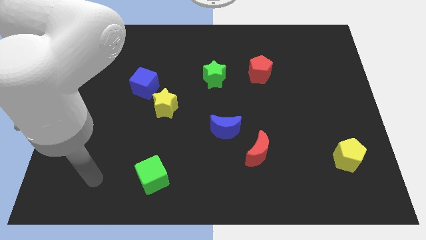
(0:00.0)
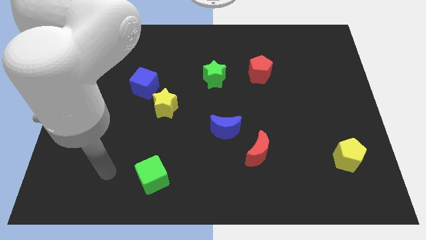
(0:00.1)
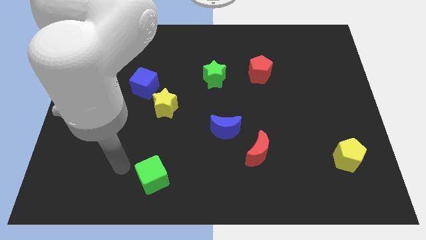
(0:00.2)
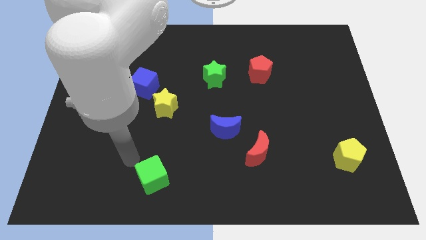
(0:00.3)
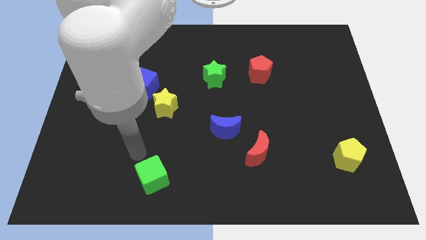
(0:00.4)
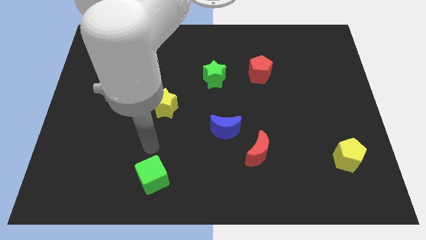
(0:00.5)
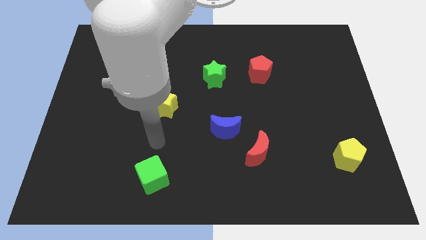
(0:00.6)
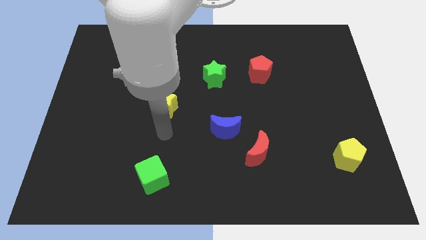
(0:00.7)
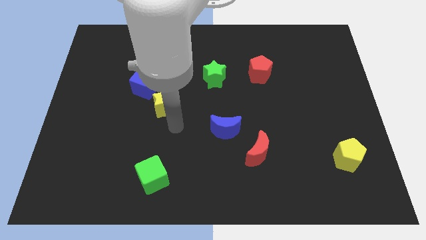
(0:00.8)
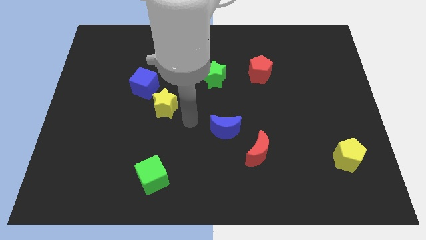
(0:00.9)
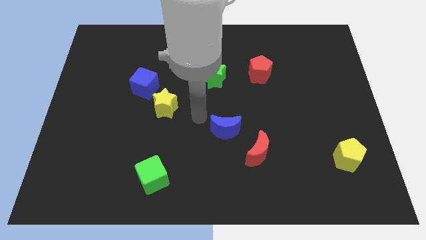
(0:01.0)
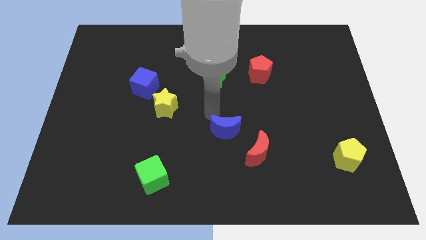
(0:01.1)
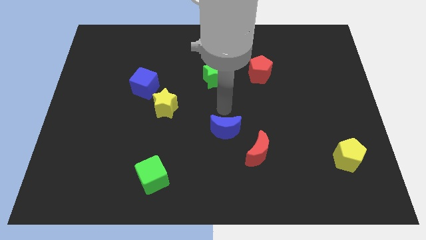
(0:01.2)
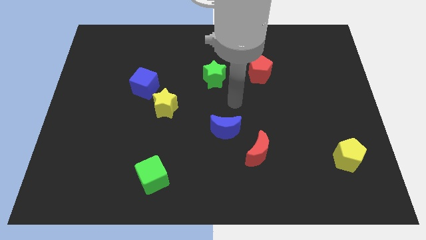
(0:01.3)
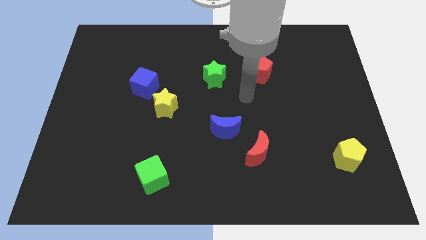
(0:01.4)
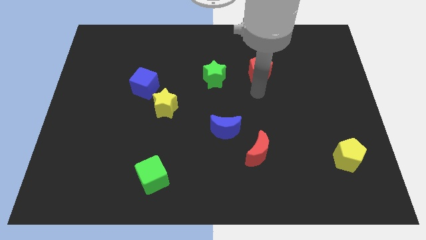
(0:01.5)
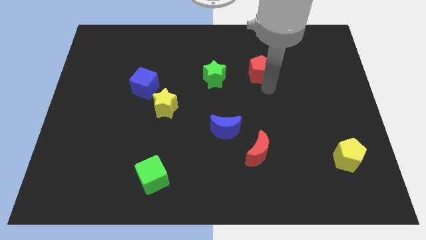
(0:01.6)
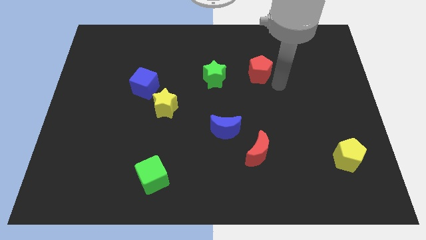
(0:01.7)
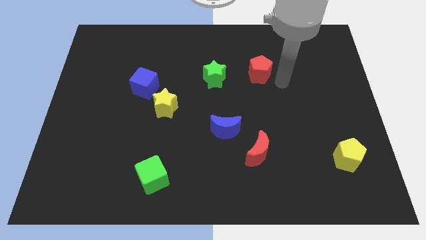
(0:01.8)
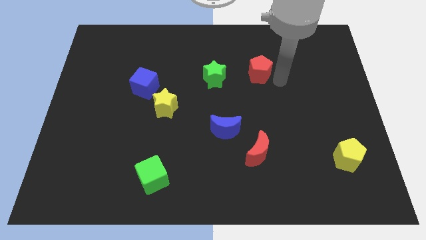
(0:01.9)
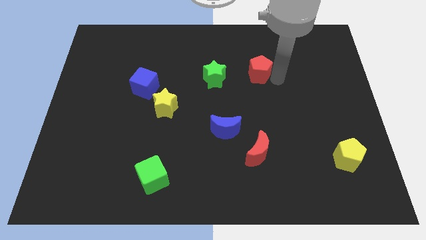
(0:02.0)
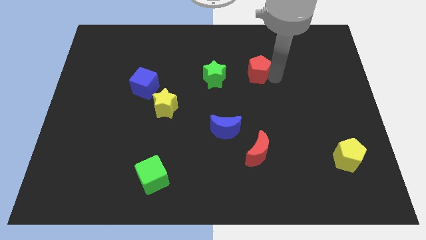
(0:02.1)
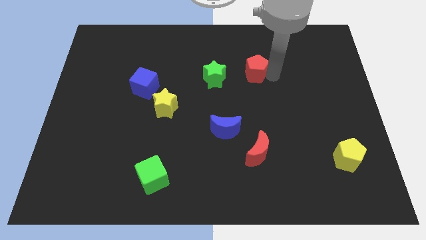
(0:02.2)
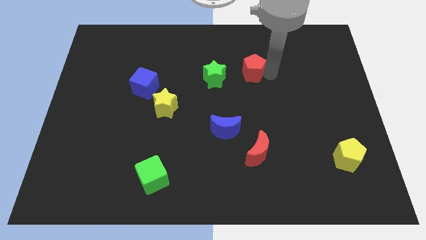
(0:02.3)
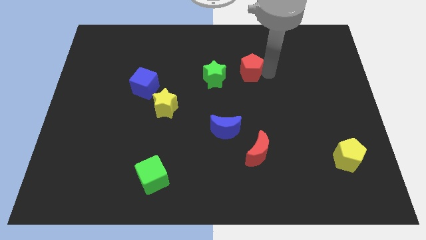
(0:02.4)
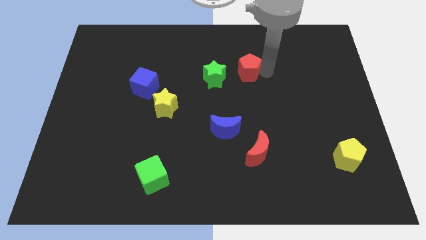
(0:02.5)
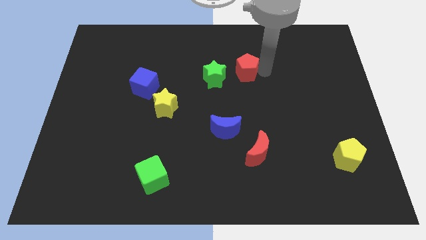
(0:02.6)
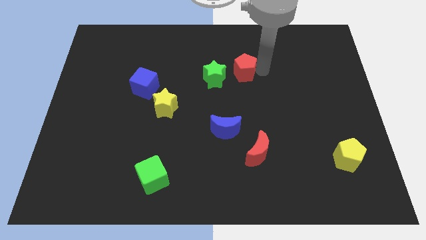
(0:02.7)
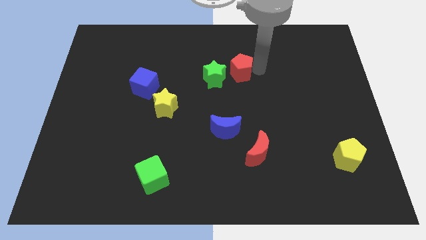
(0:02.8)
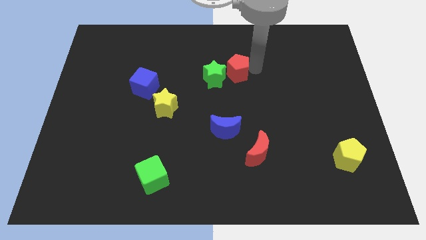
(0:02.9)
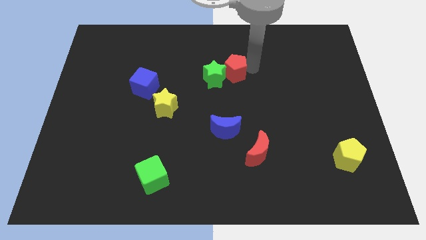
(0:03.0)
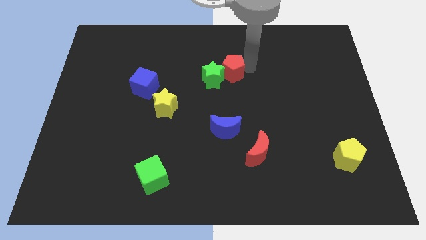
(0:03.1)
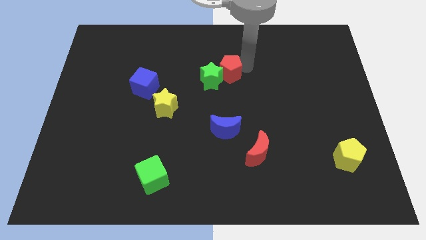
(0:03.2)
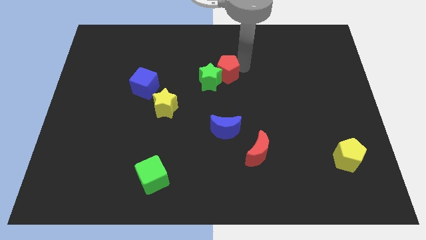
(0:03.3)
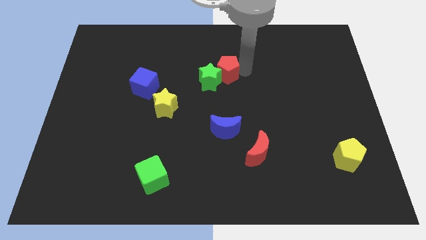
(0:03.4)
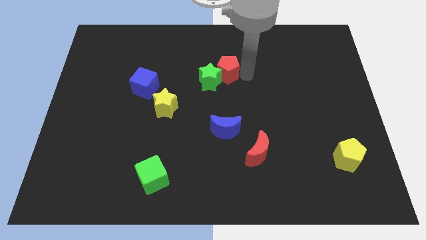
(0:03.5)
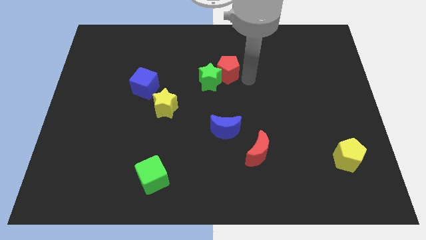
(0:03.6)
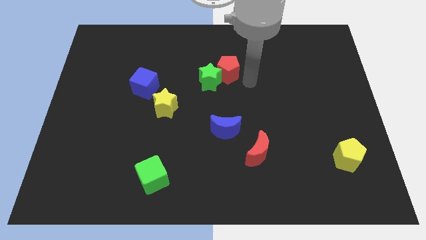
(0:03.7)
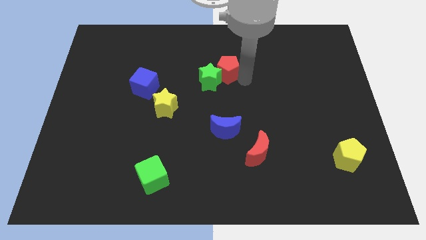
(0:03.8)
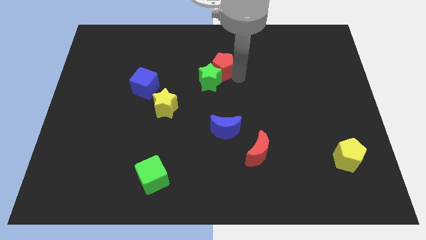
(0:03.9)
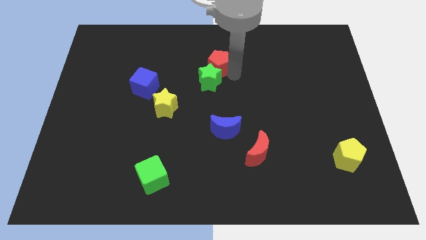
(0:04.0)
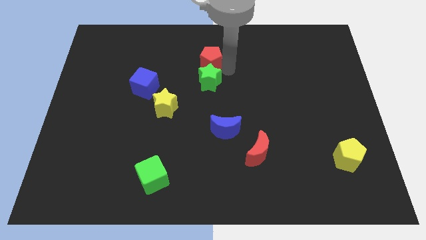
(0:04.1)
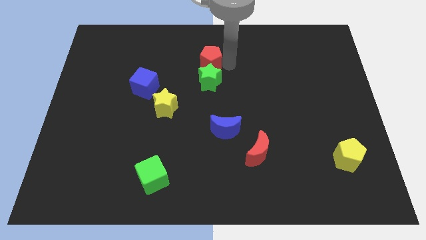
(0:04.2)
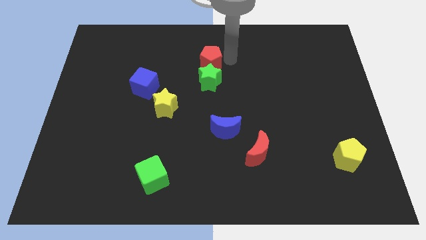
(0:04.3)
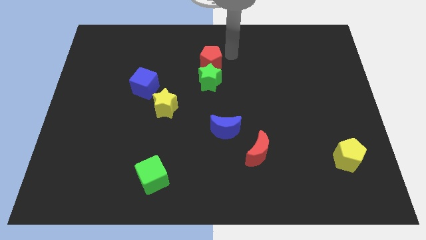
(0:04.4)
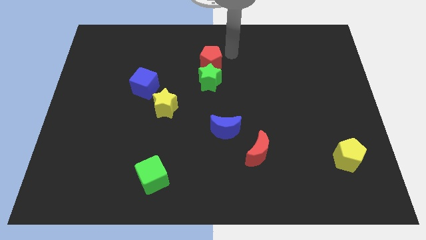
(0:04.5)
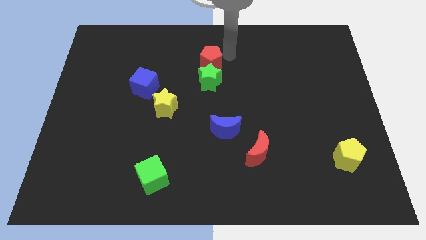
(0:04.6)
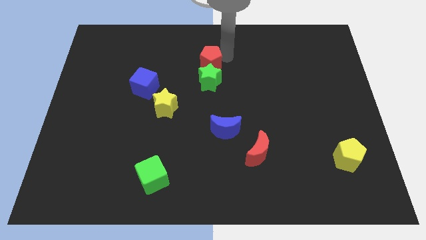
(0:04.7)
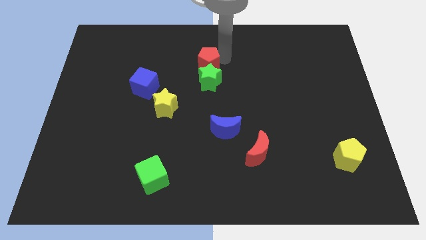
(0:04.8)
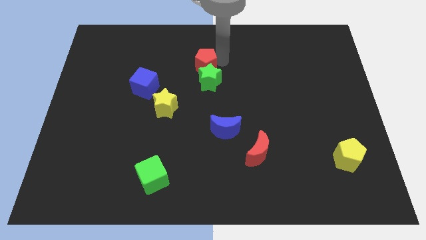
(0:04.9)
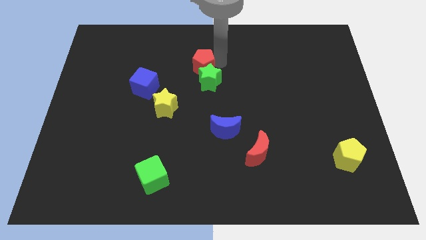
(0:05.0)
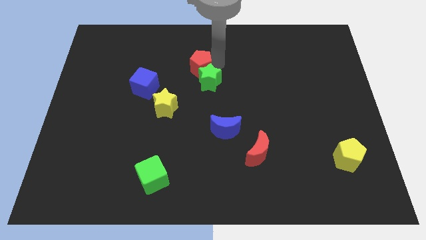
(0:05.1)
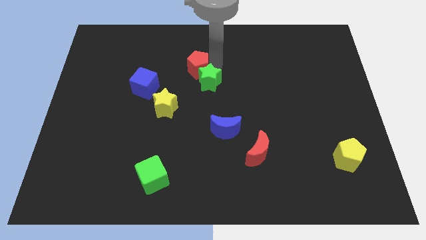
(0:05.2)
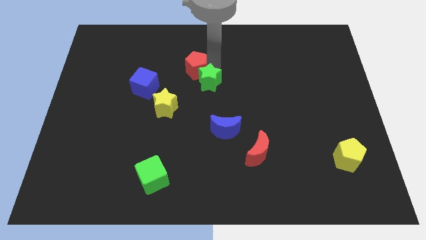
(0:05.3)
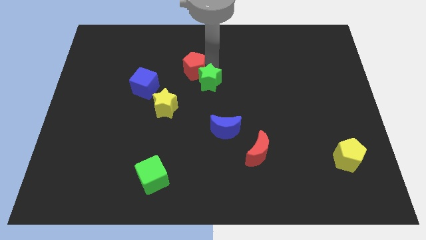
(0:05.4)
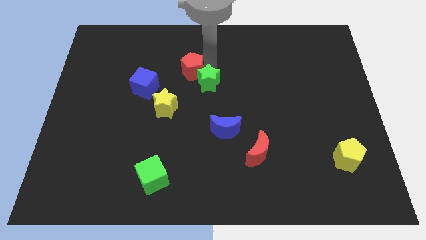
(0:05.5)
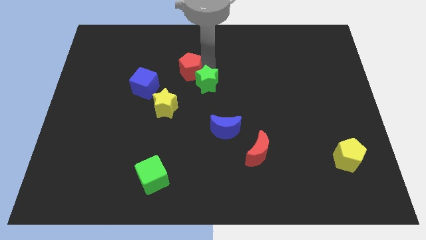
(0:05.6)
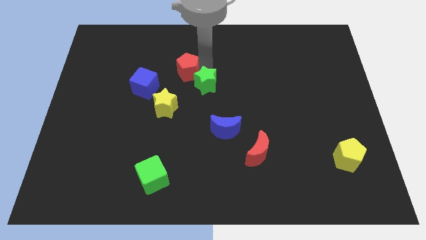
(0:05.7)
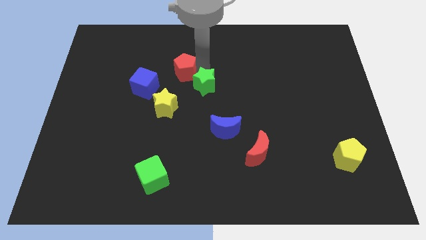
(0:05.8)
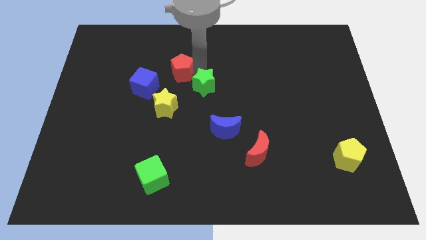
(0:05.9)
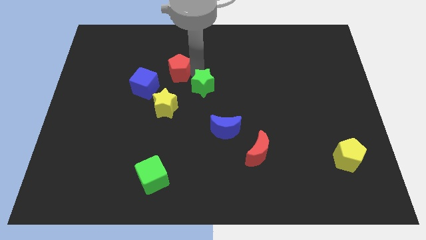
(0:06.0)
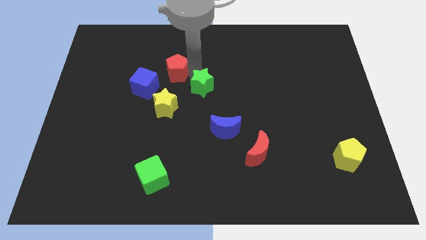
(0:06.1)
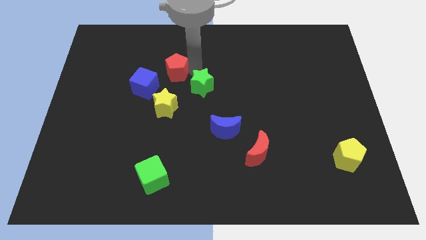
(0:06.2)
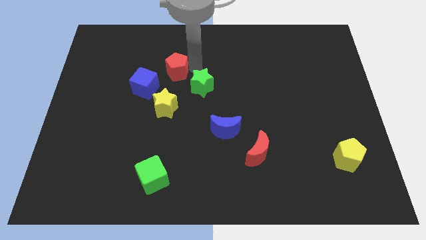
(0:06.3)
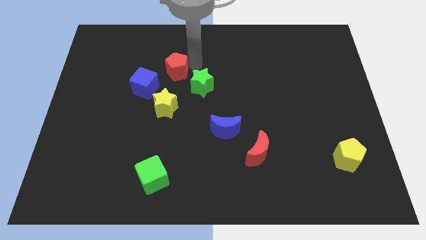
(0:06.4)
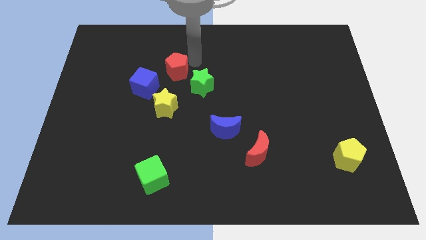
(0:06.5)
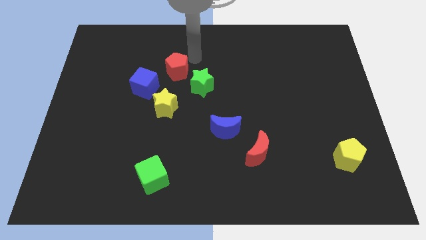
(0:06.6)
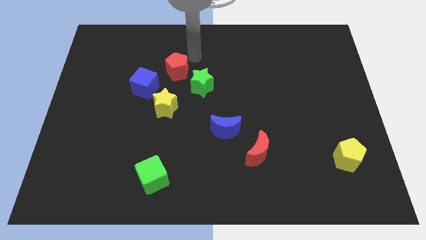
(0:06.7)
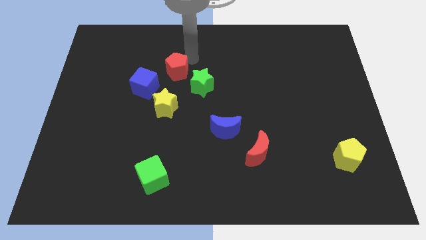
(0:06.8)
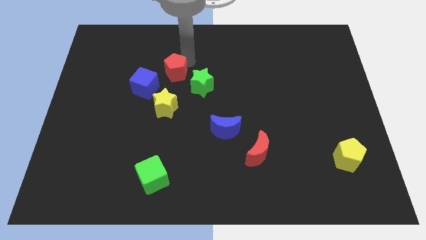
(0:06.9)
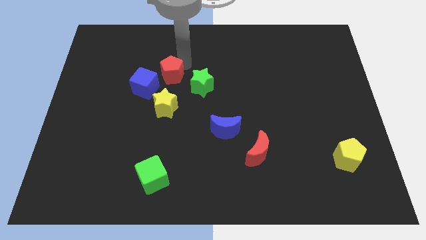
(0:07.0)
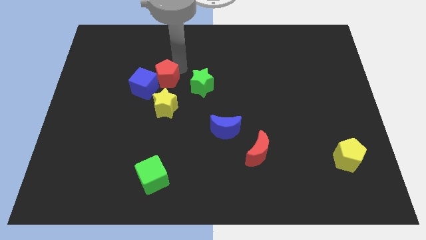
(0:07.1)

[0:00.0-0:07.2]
push the red pentagon to the blue cube

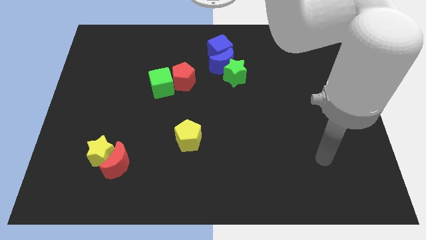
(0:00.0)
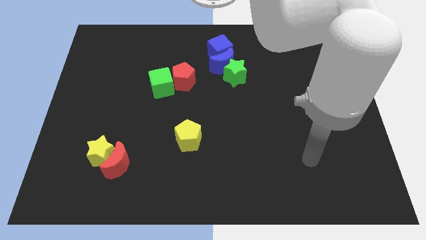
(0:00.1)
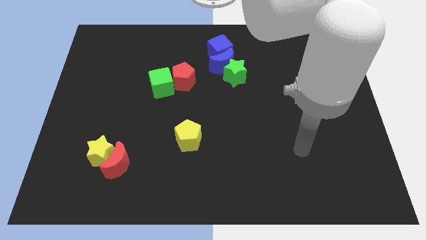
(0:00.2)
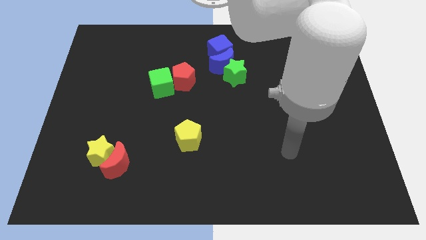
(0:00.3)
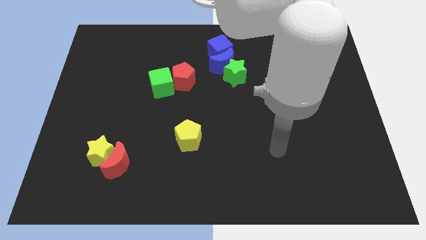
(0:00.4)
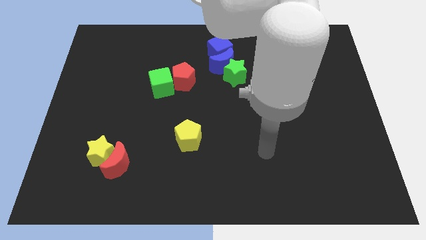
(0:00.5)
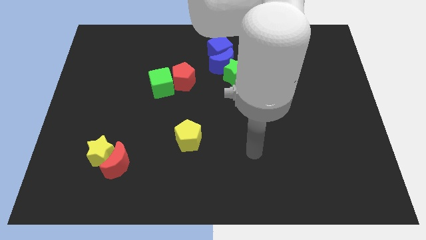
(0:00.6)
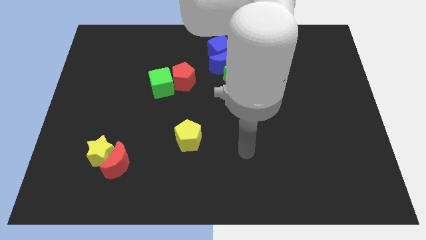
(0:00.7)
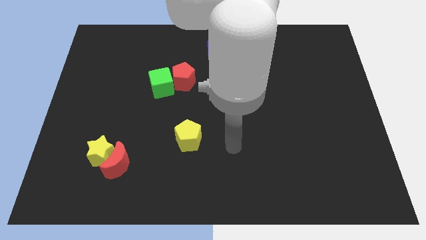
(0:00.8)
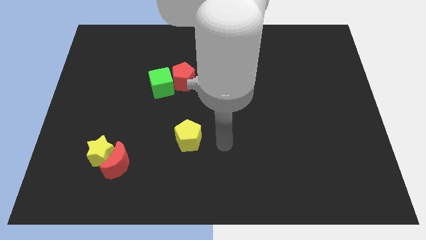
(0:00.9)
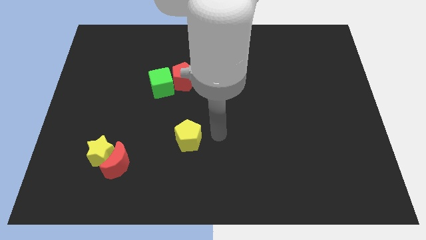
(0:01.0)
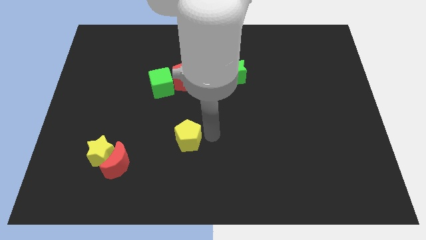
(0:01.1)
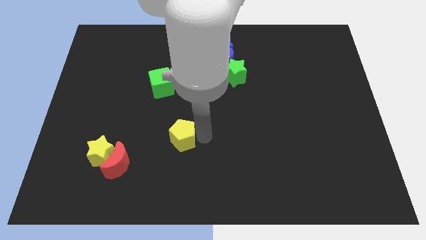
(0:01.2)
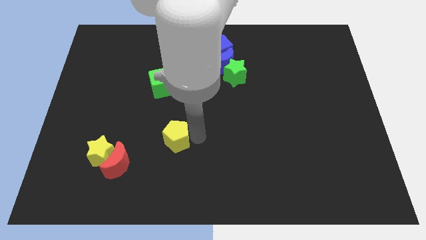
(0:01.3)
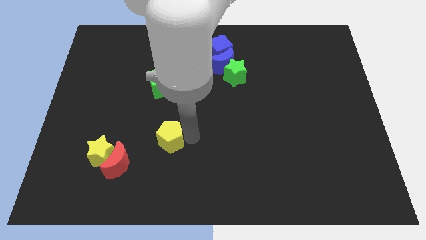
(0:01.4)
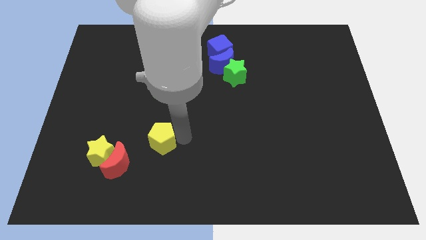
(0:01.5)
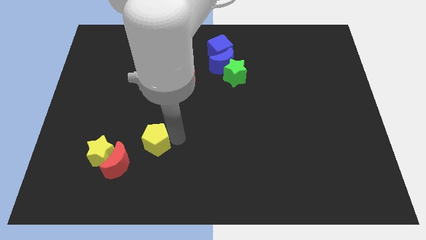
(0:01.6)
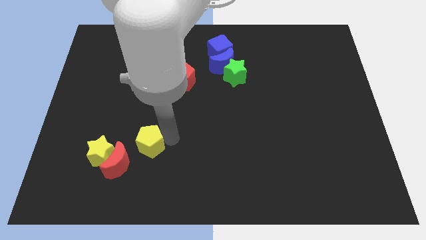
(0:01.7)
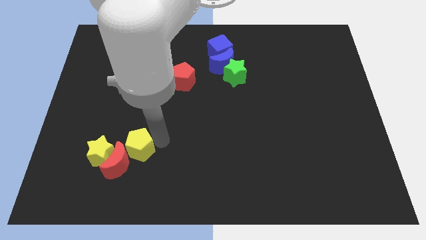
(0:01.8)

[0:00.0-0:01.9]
move the yellow pentagon close to the red moon
